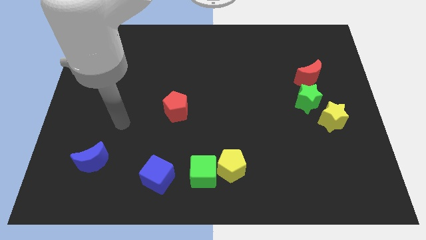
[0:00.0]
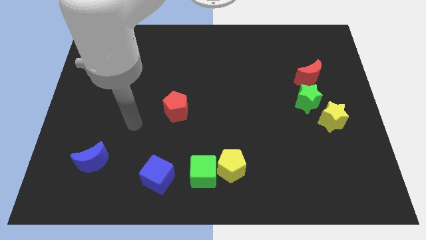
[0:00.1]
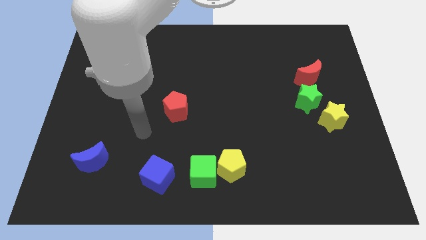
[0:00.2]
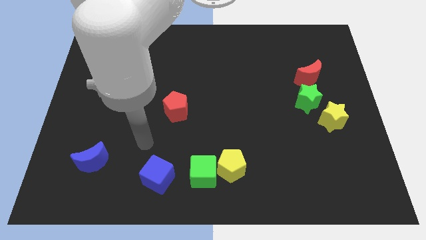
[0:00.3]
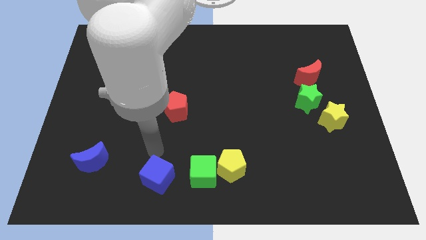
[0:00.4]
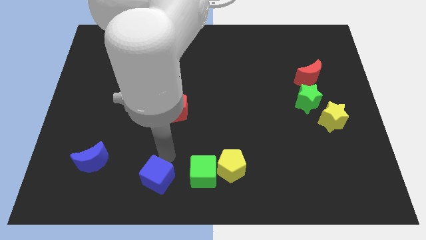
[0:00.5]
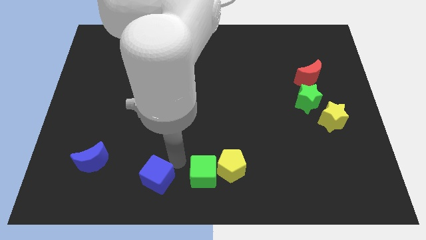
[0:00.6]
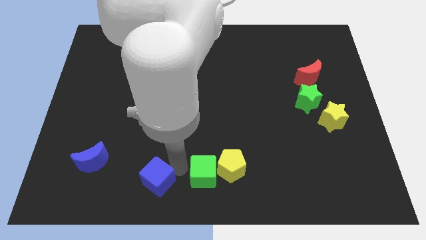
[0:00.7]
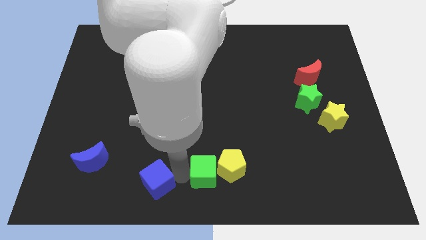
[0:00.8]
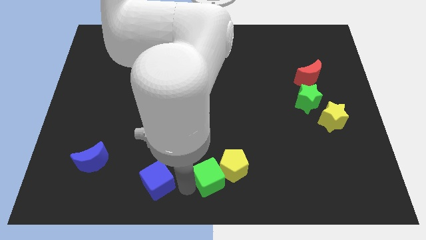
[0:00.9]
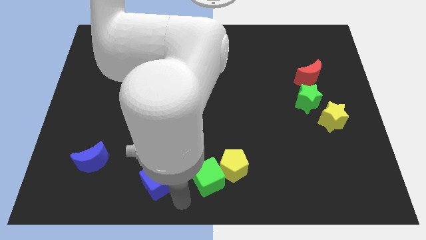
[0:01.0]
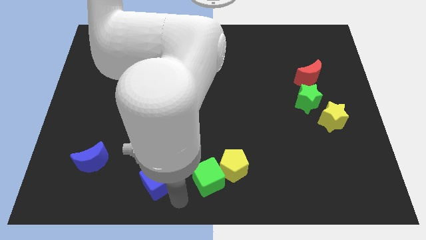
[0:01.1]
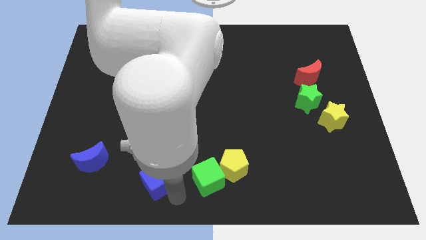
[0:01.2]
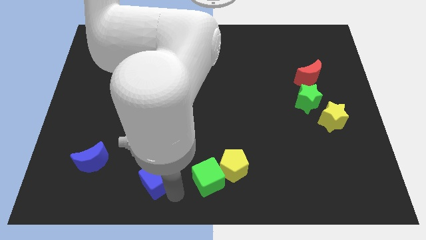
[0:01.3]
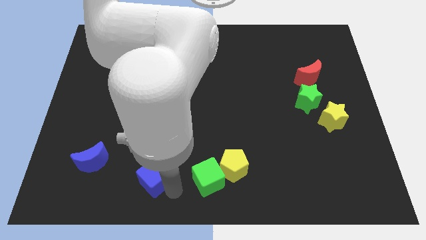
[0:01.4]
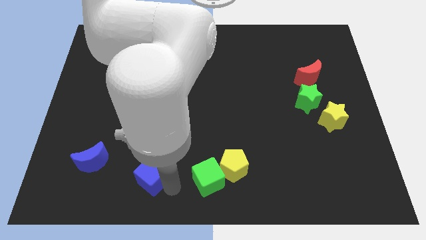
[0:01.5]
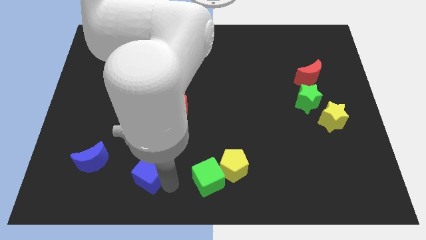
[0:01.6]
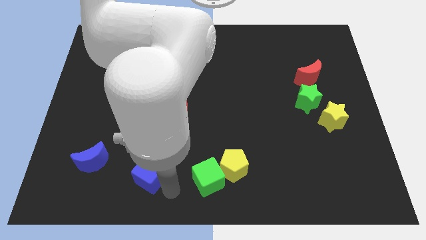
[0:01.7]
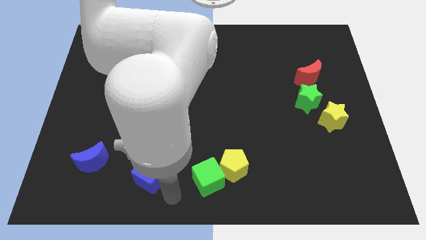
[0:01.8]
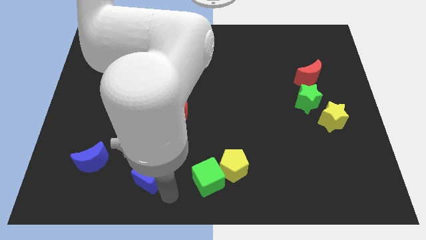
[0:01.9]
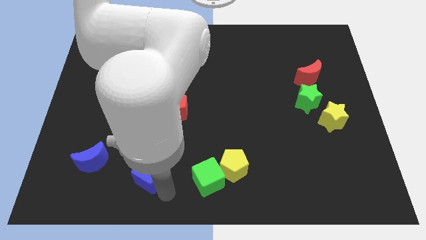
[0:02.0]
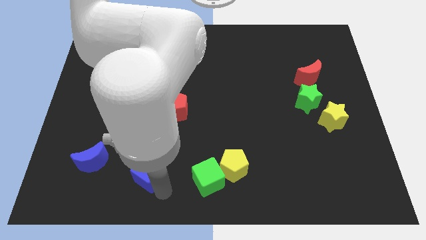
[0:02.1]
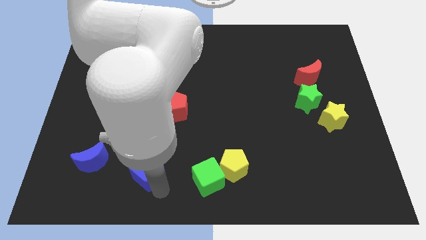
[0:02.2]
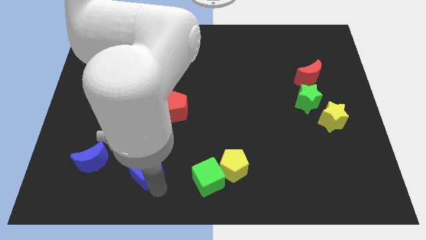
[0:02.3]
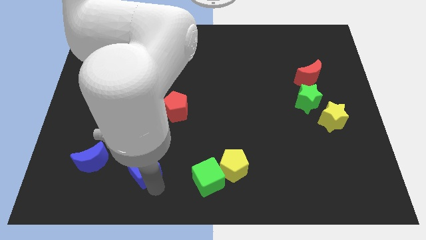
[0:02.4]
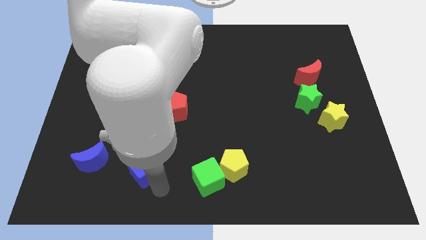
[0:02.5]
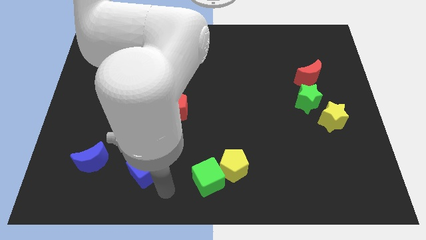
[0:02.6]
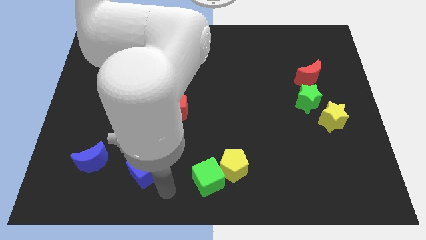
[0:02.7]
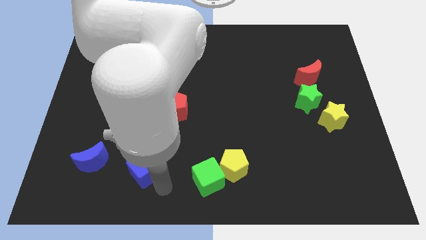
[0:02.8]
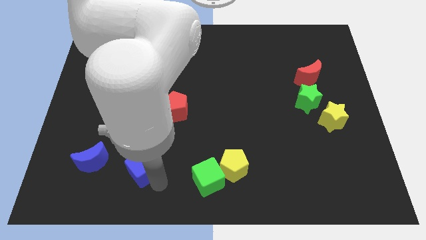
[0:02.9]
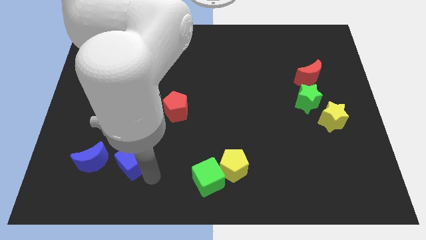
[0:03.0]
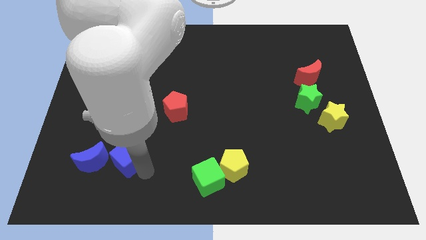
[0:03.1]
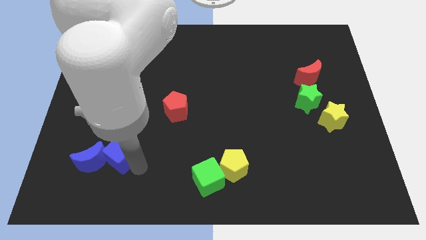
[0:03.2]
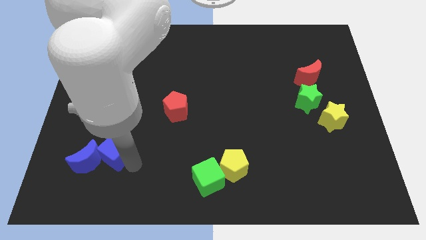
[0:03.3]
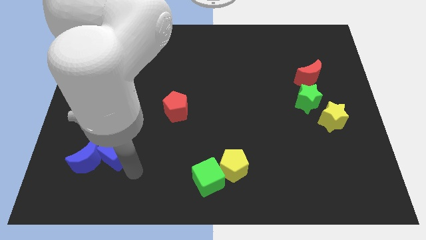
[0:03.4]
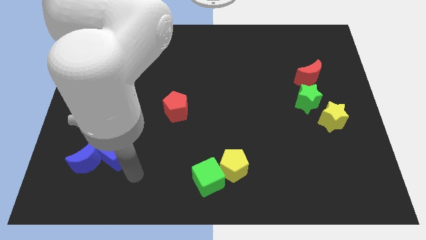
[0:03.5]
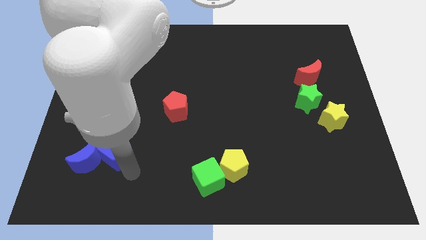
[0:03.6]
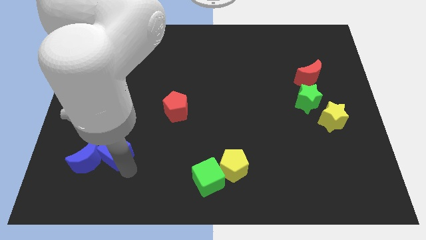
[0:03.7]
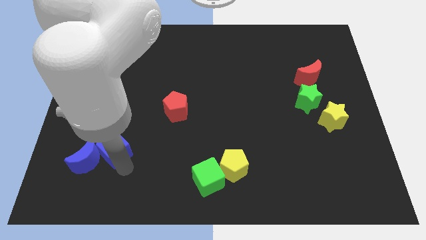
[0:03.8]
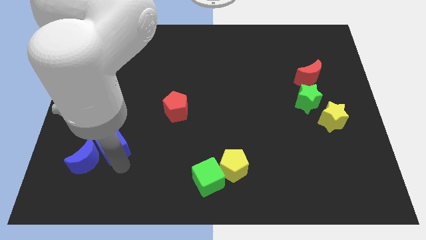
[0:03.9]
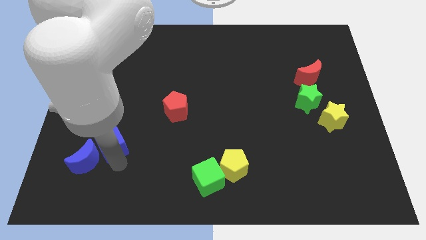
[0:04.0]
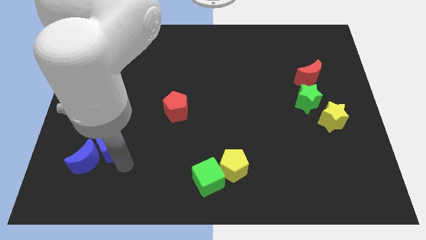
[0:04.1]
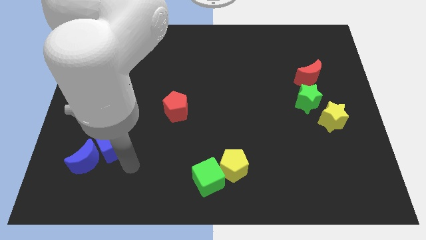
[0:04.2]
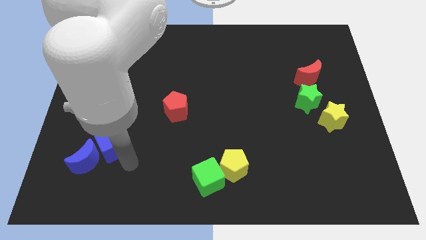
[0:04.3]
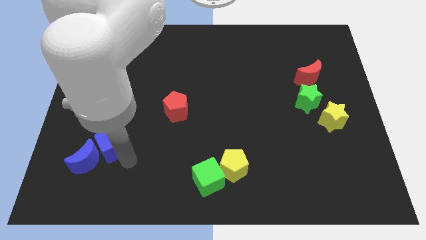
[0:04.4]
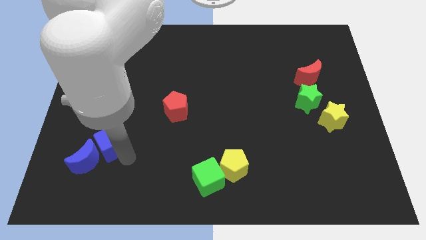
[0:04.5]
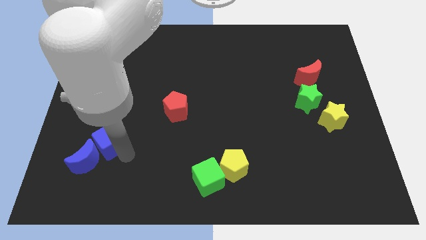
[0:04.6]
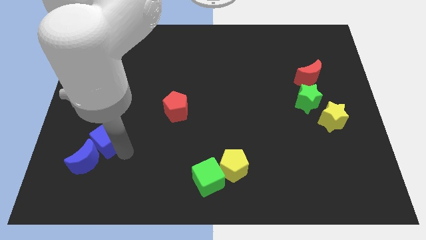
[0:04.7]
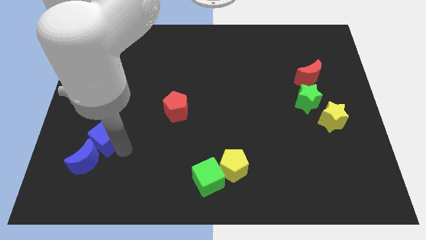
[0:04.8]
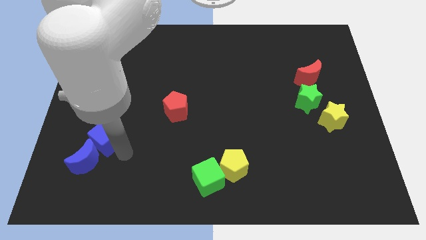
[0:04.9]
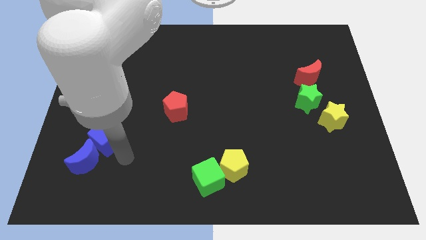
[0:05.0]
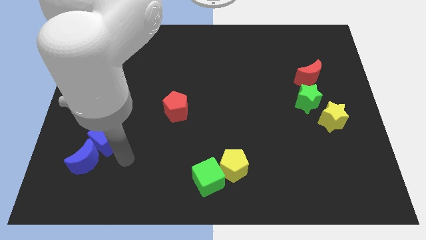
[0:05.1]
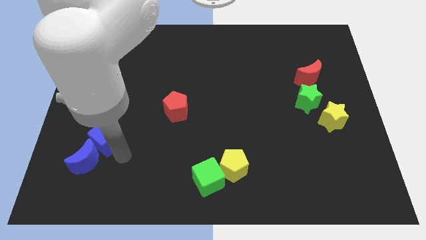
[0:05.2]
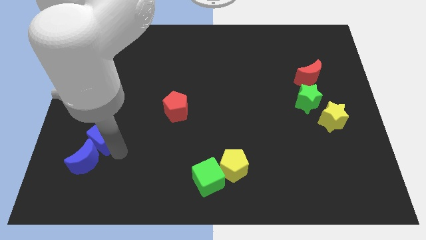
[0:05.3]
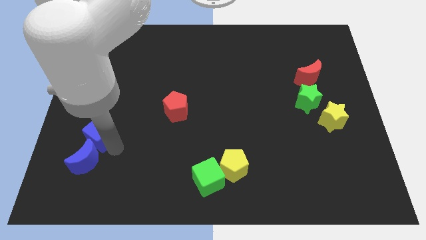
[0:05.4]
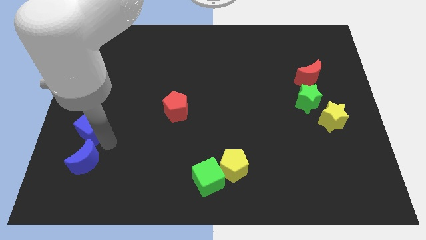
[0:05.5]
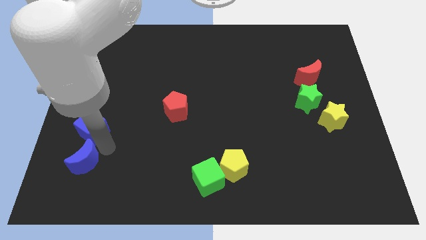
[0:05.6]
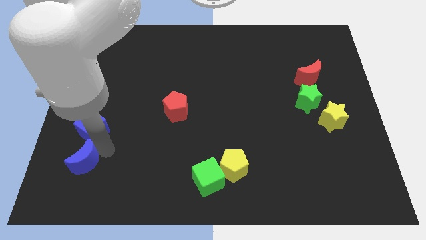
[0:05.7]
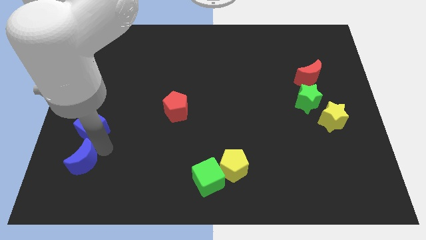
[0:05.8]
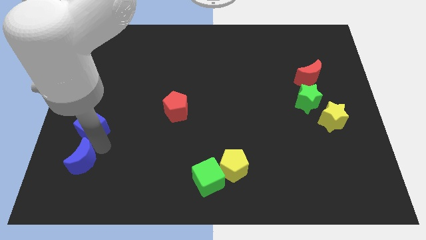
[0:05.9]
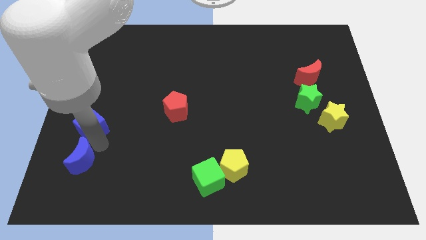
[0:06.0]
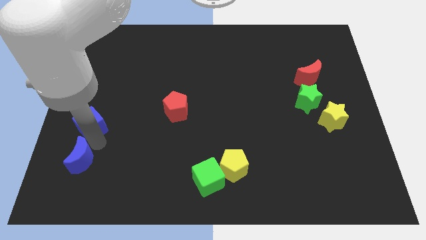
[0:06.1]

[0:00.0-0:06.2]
slide the blue cube to the left side of the board
